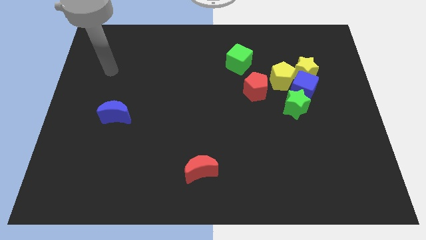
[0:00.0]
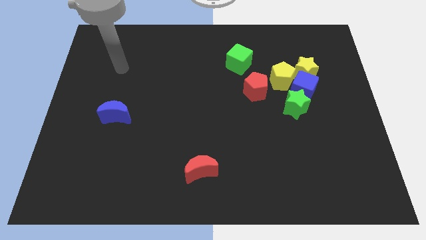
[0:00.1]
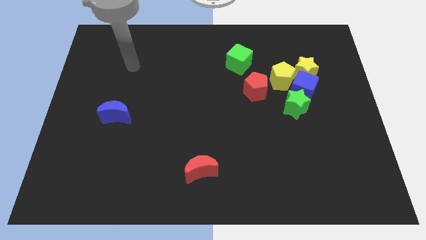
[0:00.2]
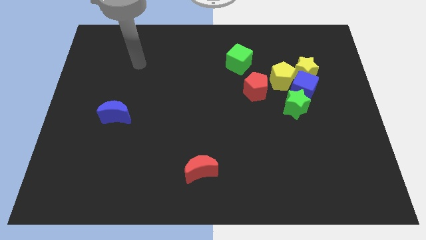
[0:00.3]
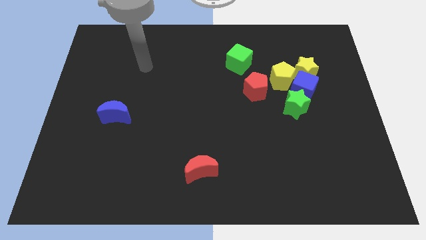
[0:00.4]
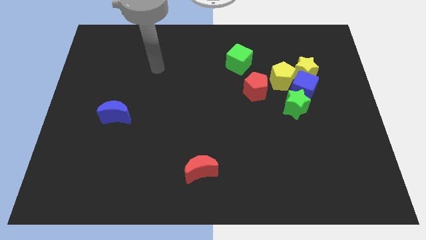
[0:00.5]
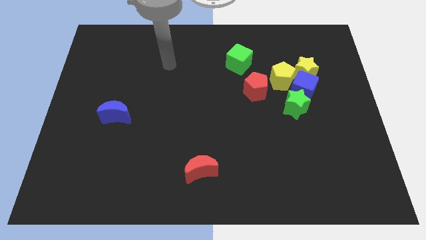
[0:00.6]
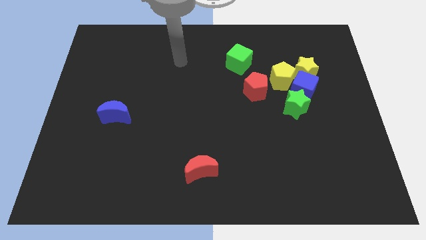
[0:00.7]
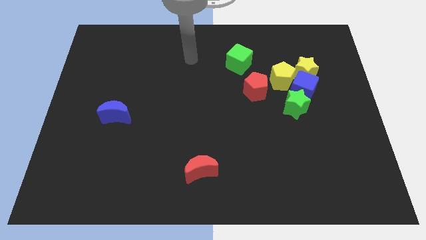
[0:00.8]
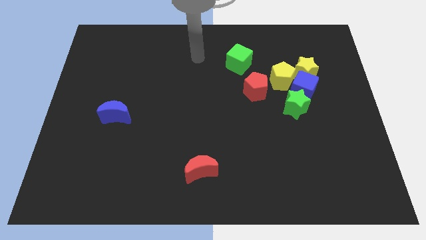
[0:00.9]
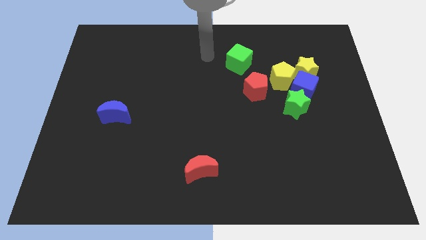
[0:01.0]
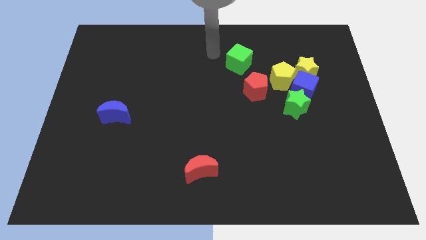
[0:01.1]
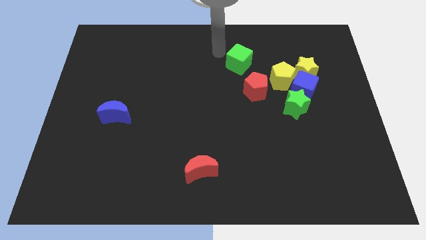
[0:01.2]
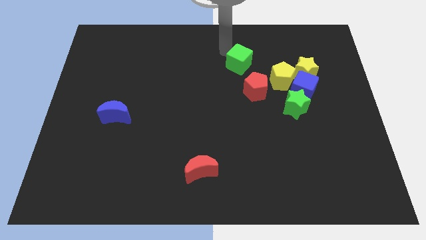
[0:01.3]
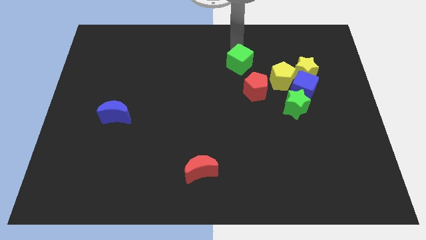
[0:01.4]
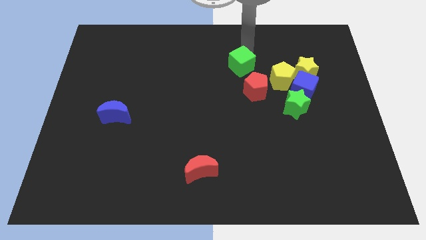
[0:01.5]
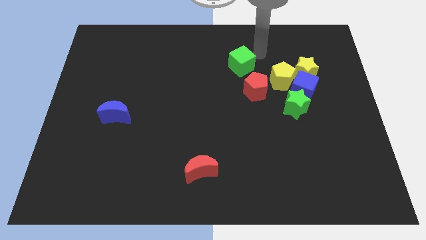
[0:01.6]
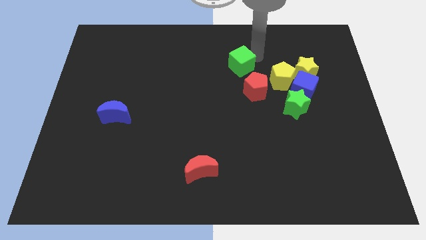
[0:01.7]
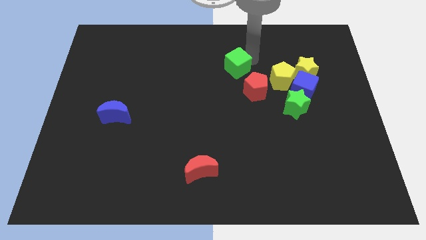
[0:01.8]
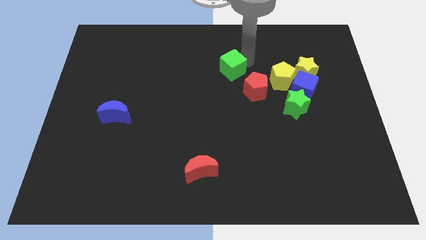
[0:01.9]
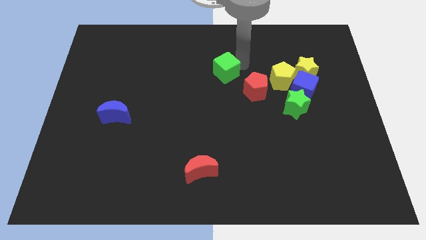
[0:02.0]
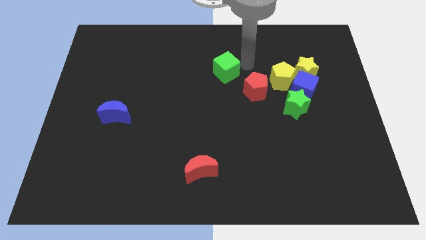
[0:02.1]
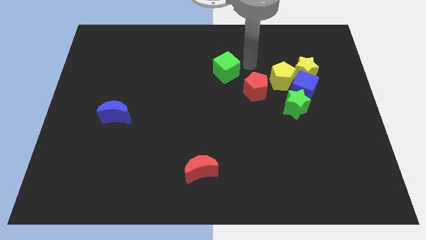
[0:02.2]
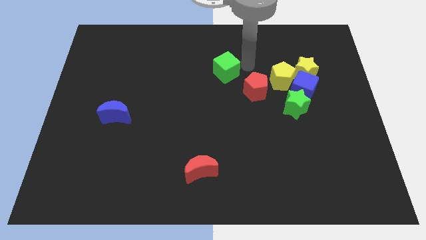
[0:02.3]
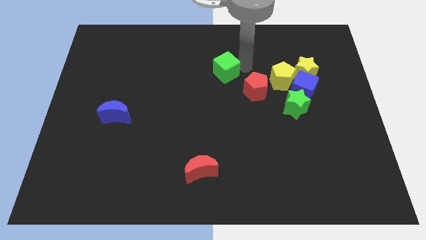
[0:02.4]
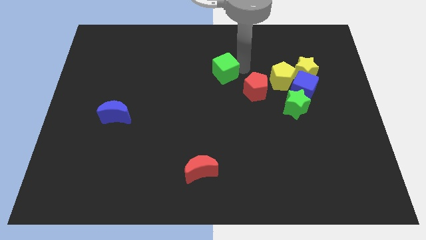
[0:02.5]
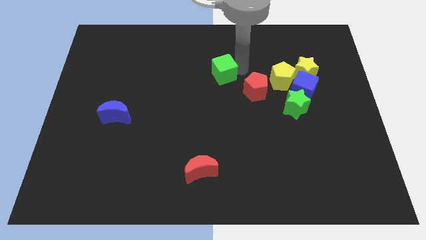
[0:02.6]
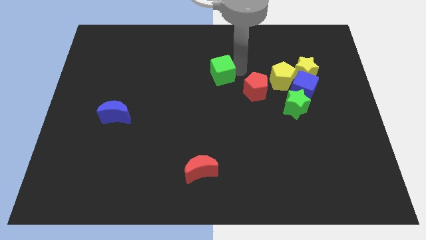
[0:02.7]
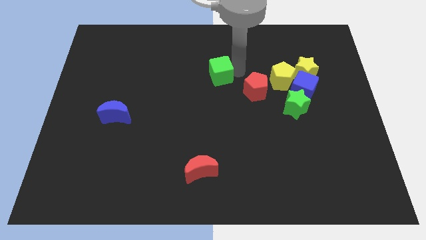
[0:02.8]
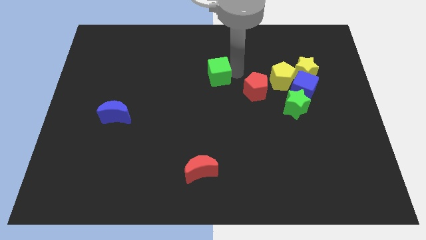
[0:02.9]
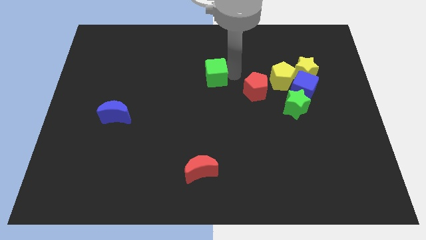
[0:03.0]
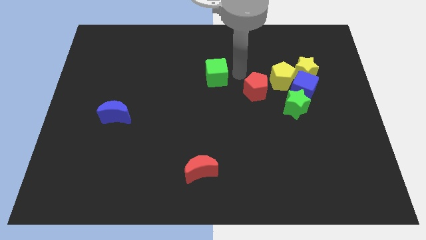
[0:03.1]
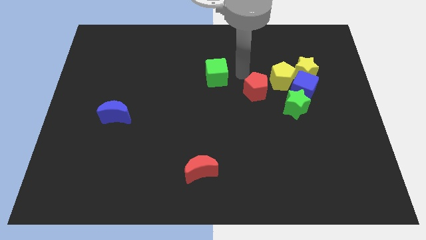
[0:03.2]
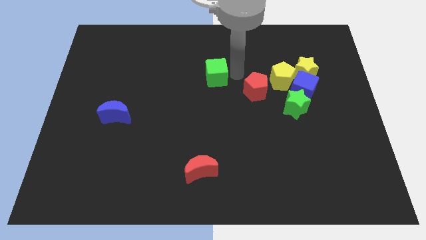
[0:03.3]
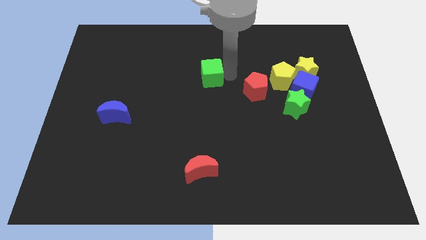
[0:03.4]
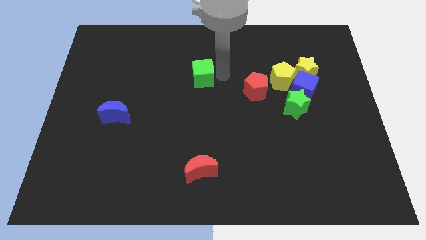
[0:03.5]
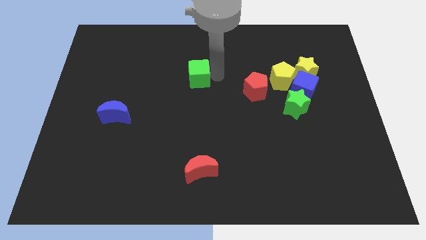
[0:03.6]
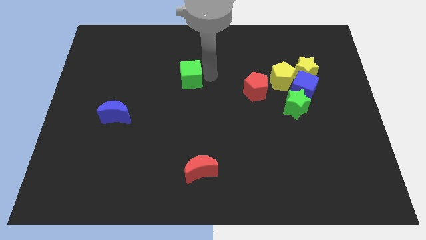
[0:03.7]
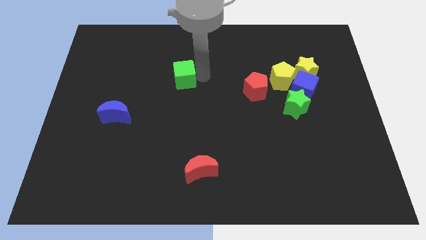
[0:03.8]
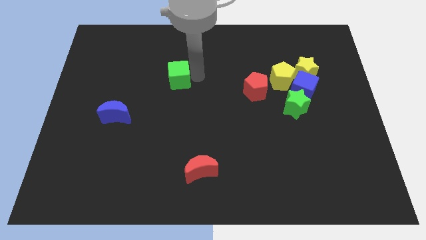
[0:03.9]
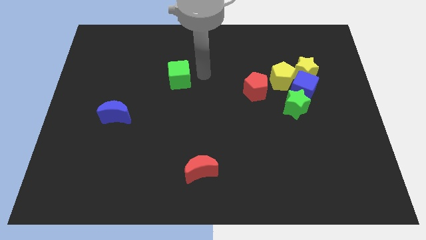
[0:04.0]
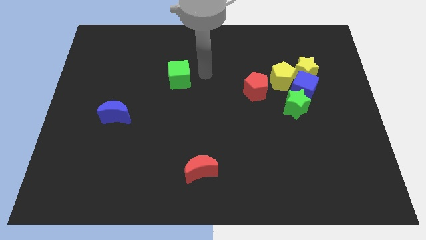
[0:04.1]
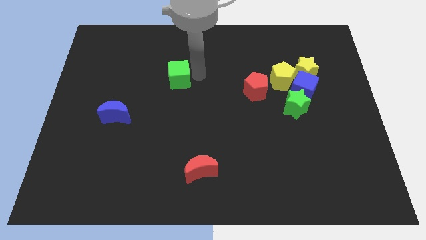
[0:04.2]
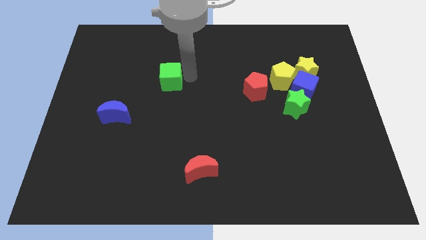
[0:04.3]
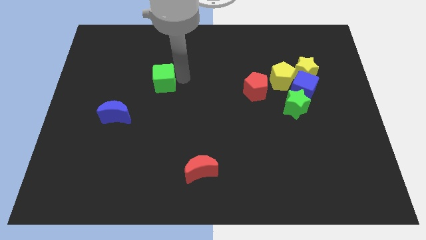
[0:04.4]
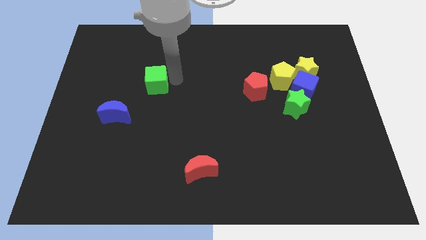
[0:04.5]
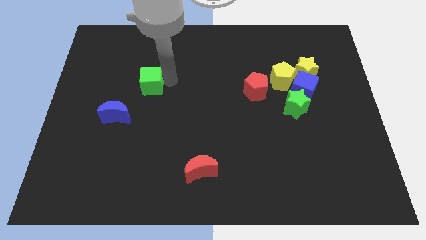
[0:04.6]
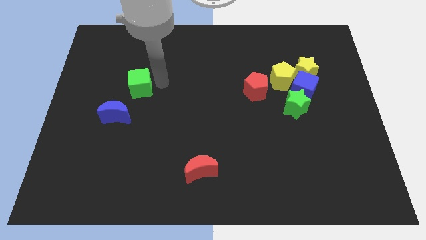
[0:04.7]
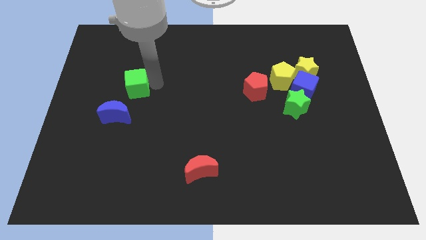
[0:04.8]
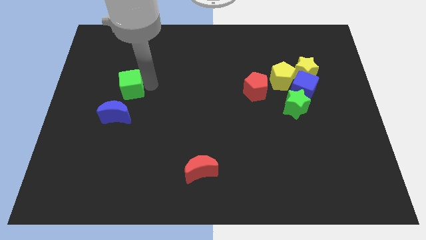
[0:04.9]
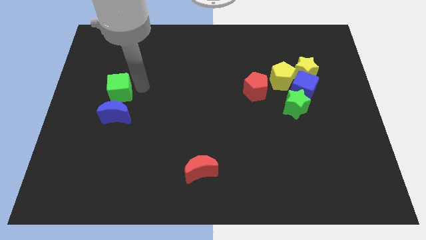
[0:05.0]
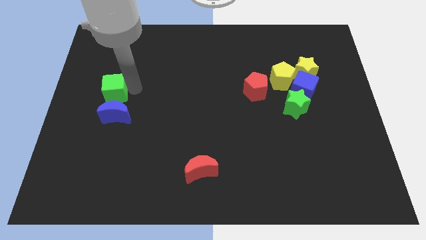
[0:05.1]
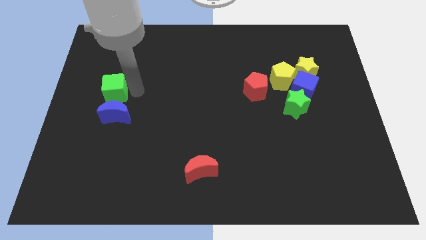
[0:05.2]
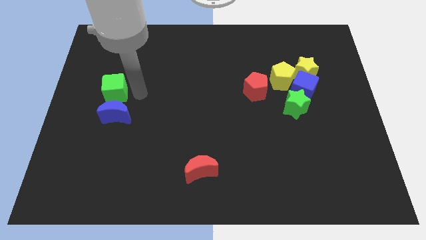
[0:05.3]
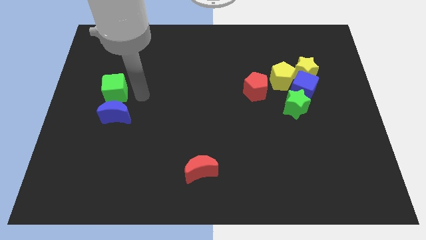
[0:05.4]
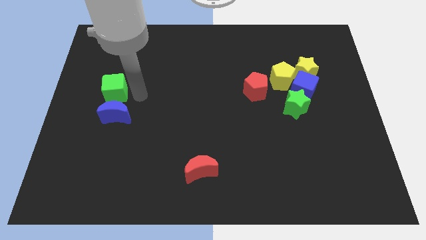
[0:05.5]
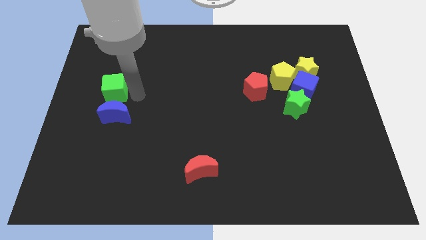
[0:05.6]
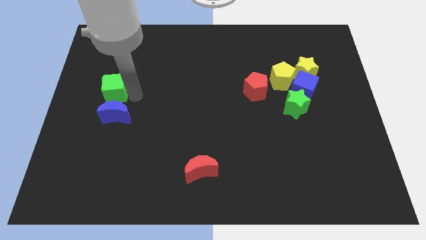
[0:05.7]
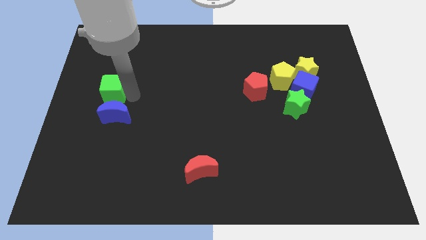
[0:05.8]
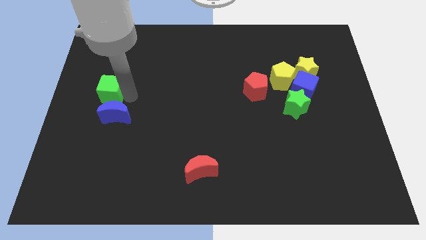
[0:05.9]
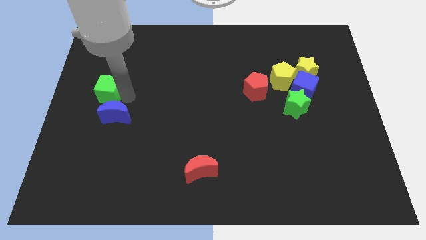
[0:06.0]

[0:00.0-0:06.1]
push the green cube to the left side of the board
